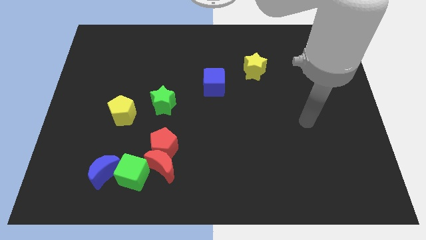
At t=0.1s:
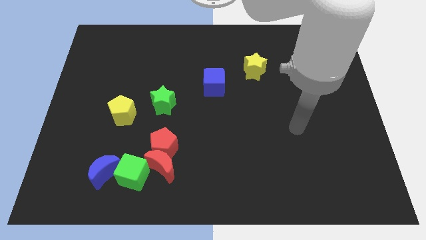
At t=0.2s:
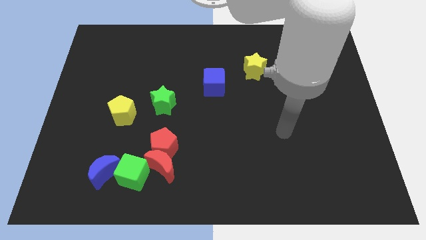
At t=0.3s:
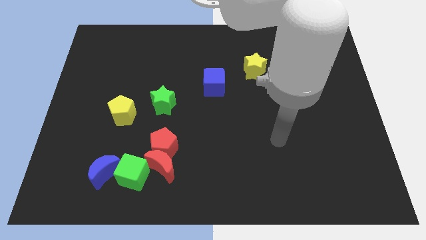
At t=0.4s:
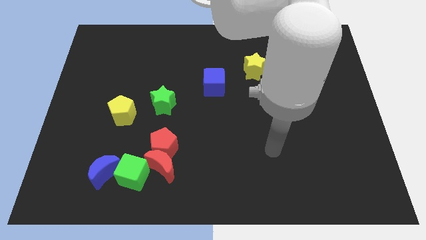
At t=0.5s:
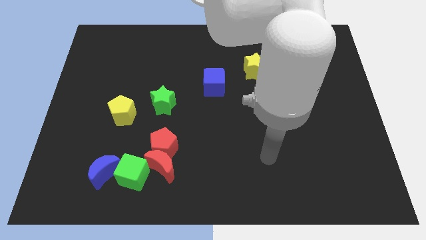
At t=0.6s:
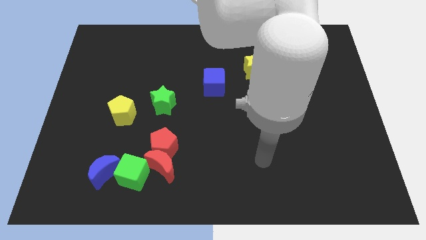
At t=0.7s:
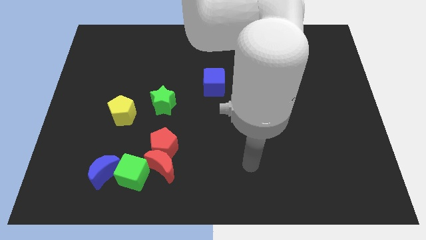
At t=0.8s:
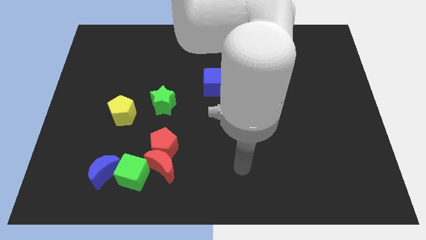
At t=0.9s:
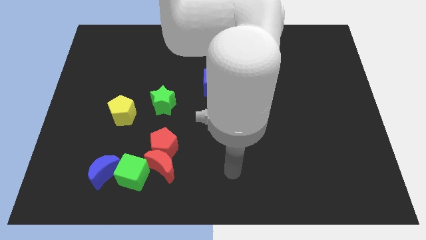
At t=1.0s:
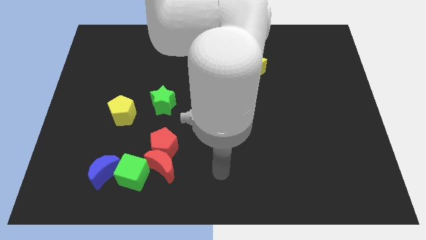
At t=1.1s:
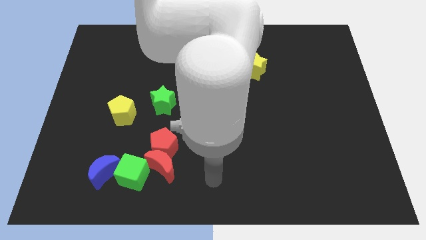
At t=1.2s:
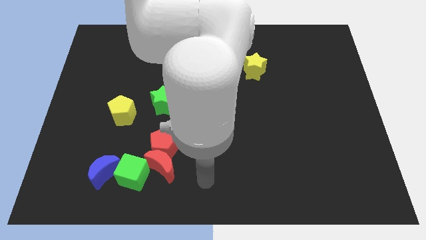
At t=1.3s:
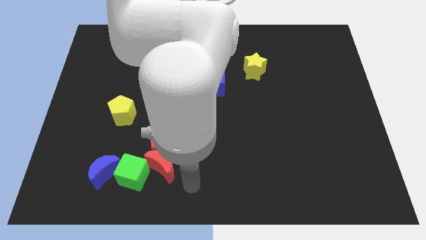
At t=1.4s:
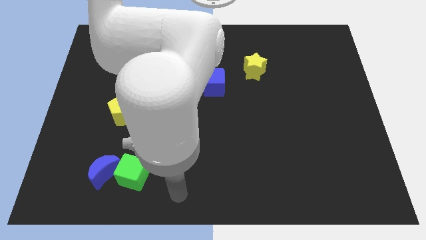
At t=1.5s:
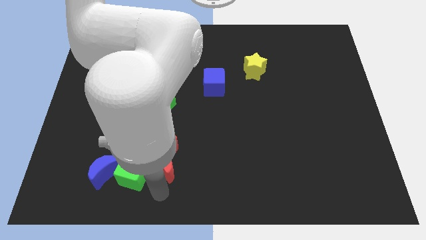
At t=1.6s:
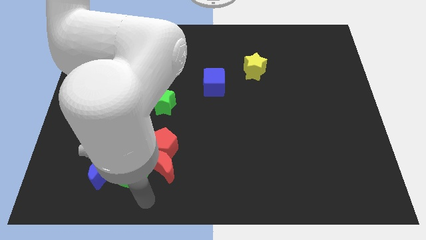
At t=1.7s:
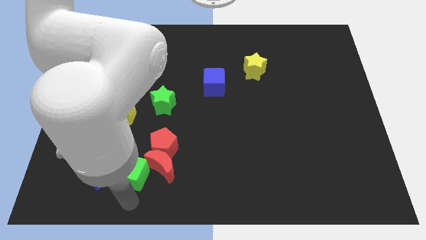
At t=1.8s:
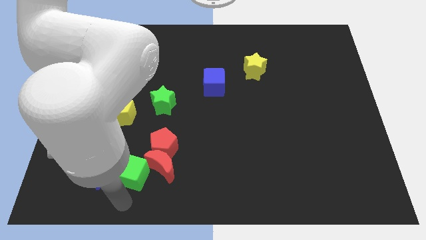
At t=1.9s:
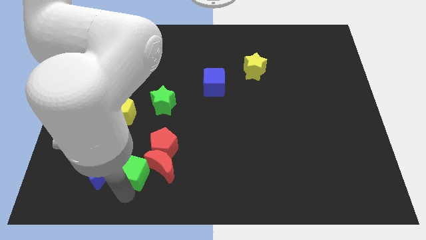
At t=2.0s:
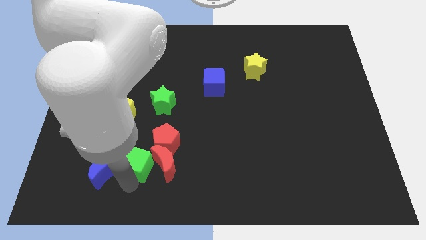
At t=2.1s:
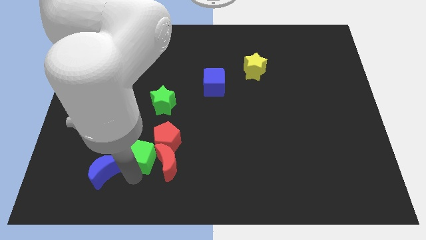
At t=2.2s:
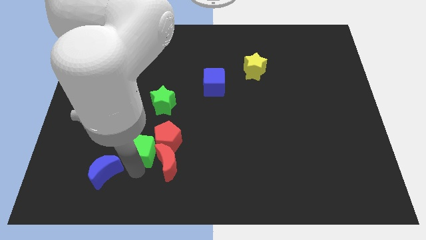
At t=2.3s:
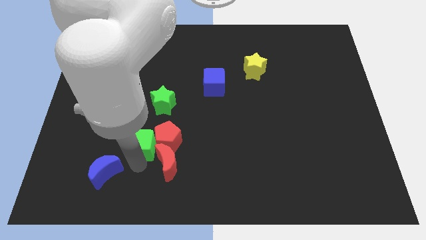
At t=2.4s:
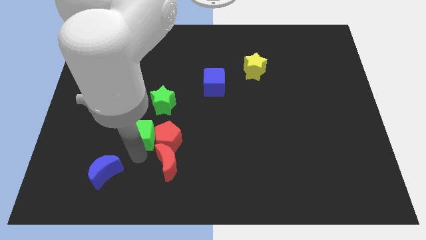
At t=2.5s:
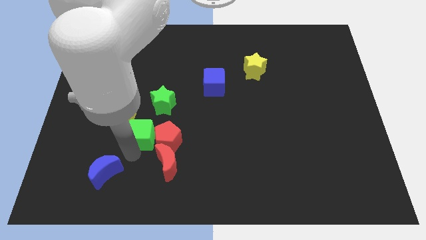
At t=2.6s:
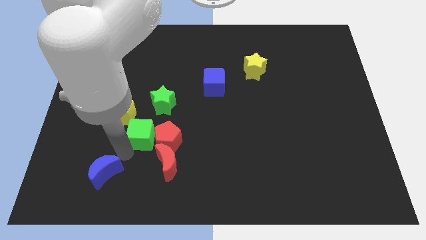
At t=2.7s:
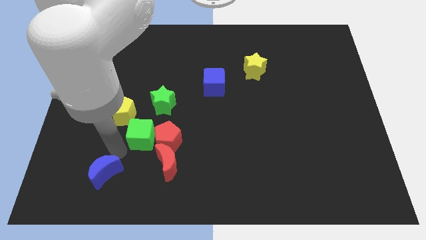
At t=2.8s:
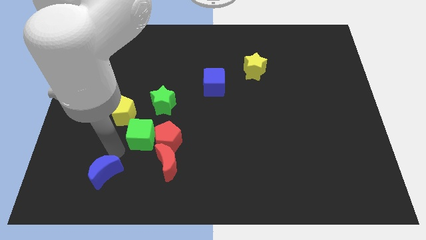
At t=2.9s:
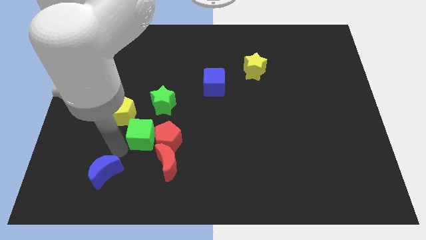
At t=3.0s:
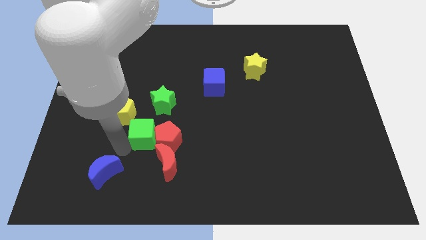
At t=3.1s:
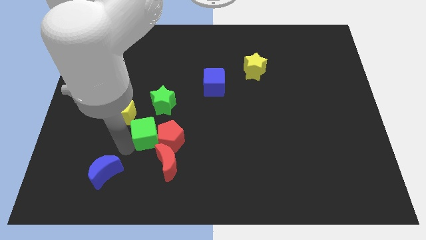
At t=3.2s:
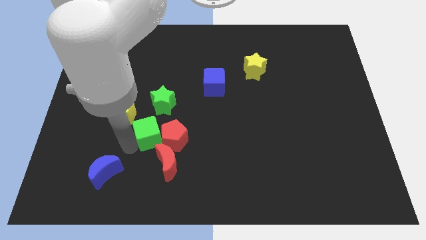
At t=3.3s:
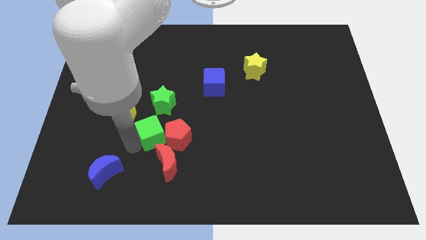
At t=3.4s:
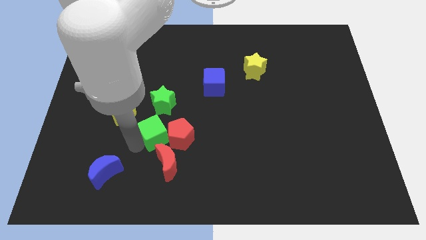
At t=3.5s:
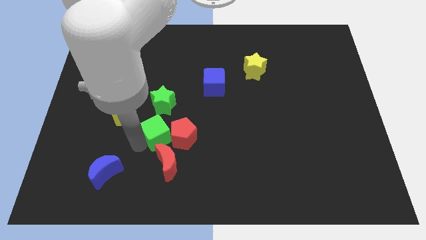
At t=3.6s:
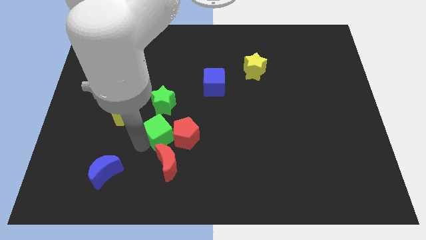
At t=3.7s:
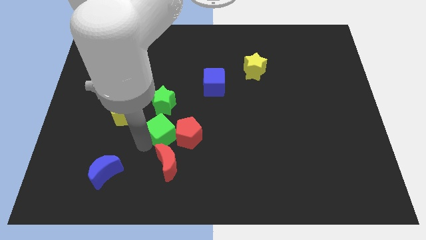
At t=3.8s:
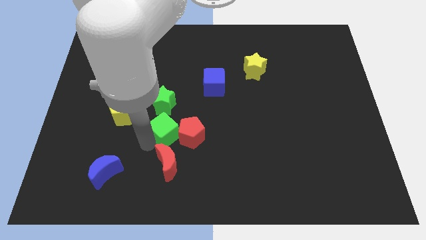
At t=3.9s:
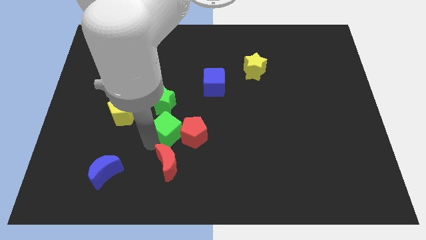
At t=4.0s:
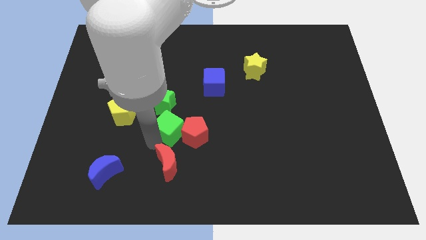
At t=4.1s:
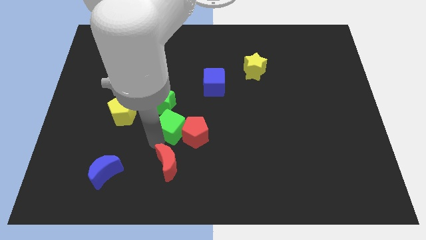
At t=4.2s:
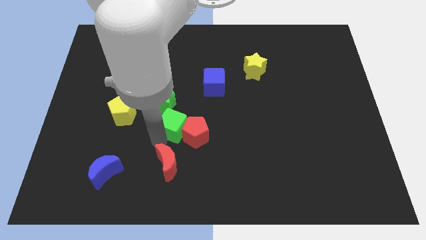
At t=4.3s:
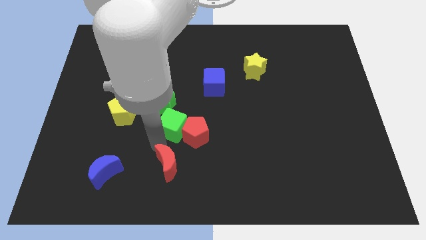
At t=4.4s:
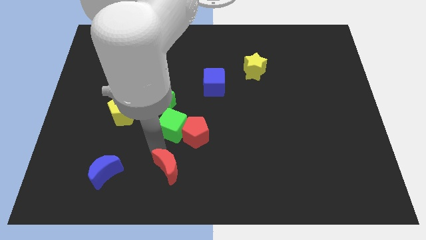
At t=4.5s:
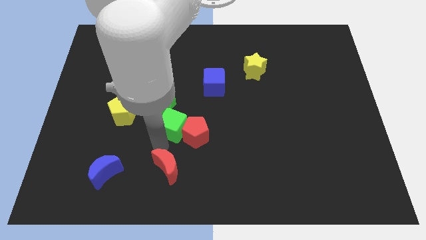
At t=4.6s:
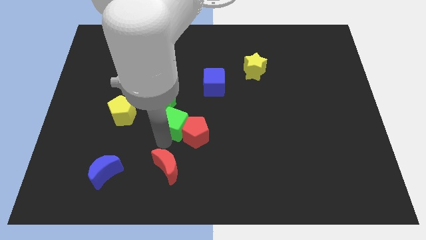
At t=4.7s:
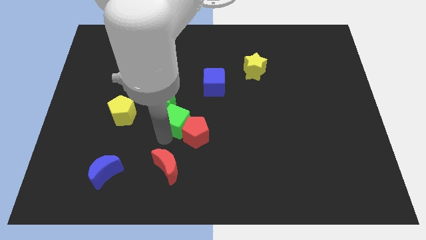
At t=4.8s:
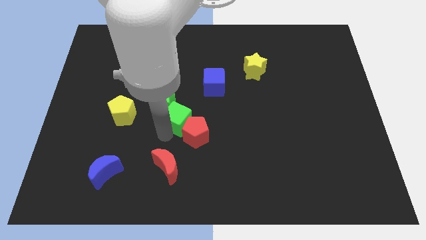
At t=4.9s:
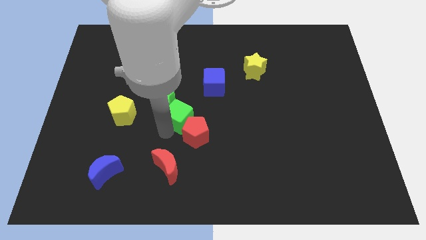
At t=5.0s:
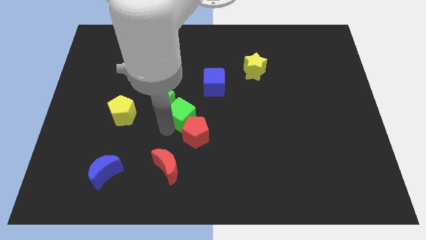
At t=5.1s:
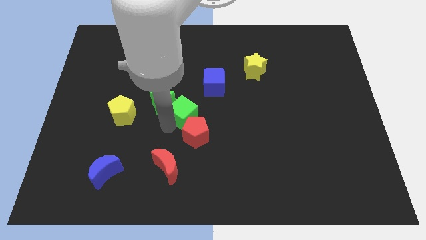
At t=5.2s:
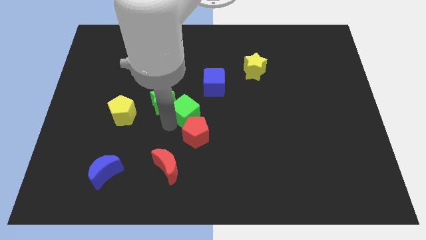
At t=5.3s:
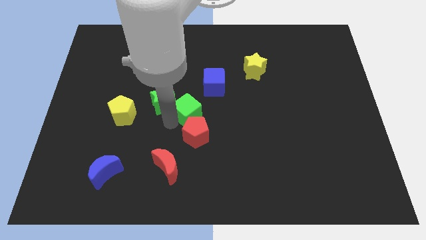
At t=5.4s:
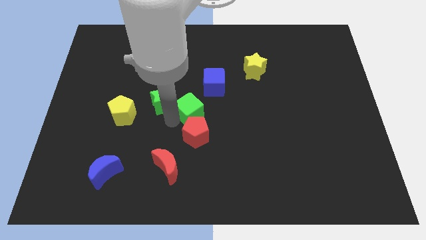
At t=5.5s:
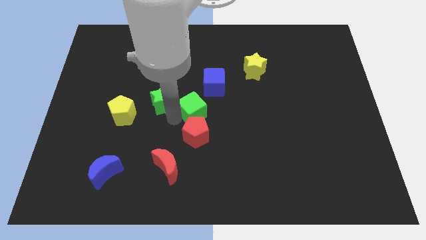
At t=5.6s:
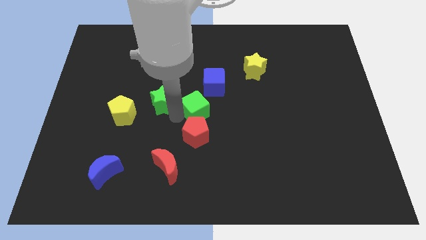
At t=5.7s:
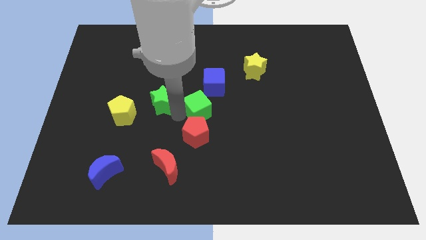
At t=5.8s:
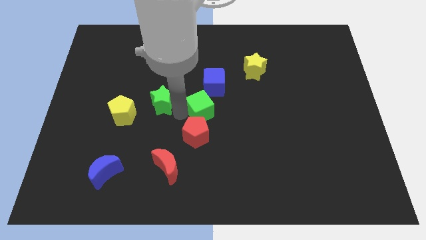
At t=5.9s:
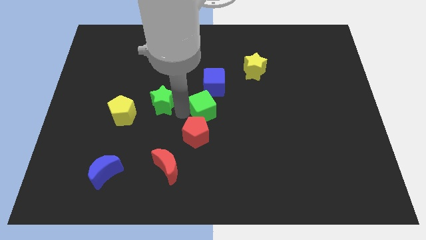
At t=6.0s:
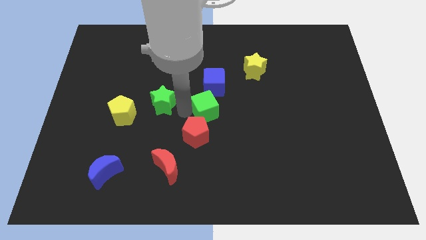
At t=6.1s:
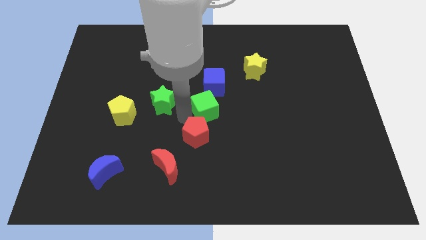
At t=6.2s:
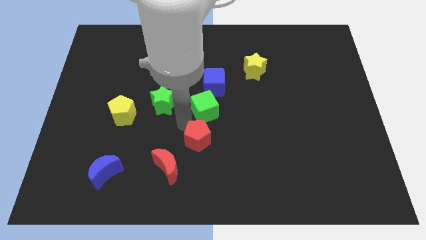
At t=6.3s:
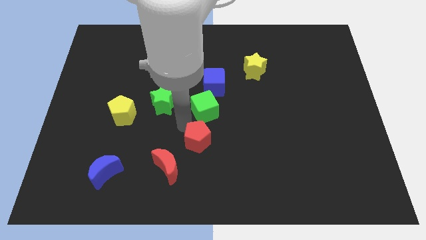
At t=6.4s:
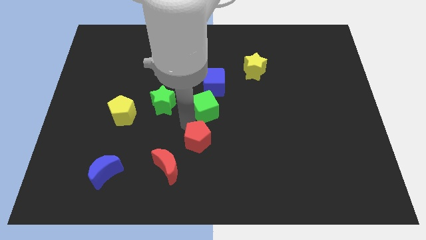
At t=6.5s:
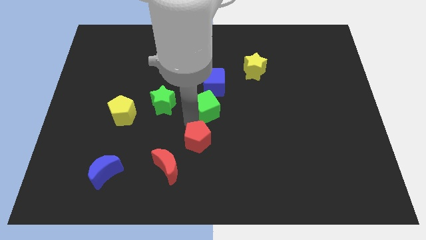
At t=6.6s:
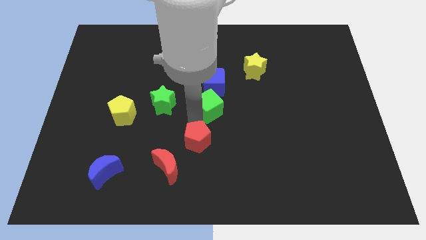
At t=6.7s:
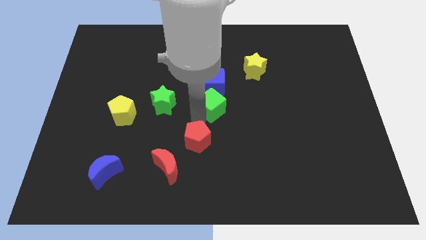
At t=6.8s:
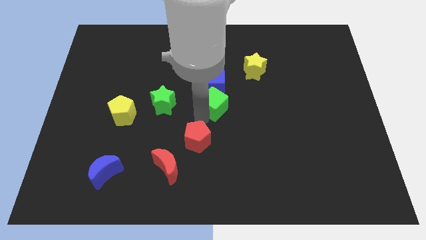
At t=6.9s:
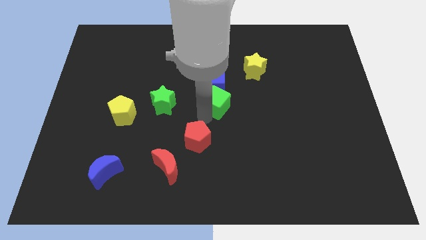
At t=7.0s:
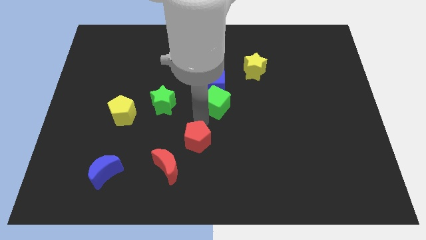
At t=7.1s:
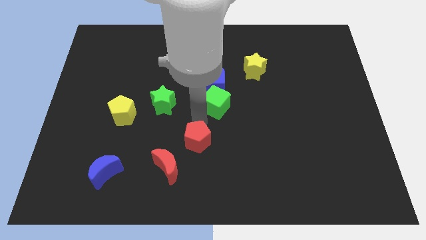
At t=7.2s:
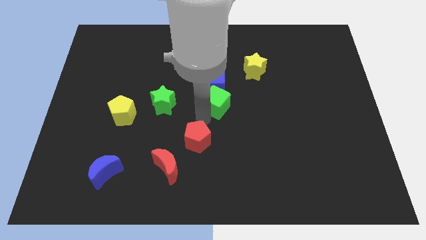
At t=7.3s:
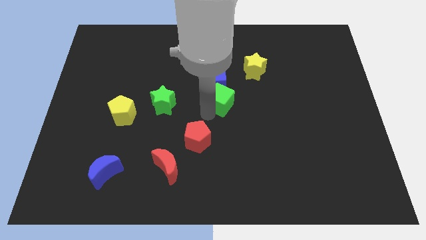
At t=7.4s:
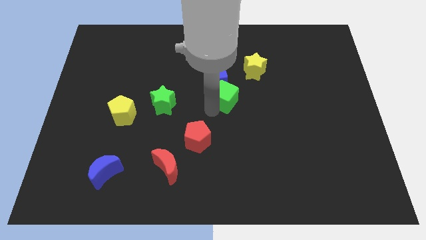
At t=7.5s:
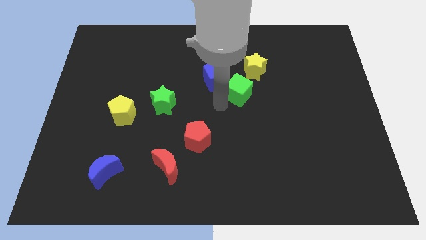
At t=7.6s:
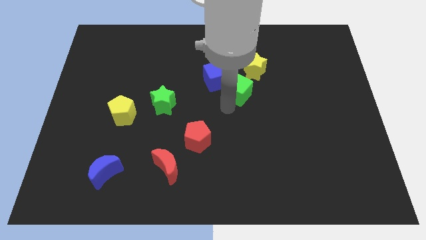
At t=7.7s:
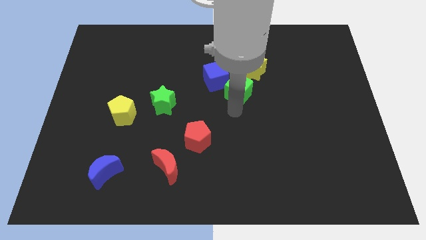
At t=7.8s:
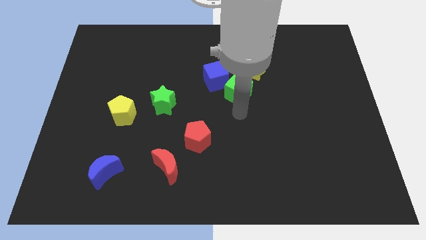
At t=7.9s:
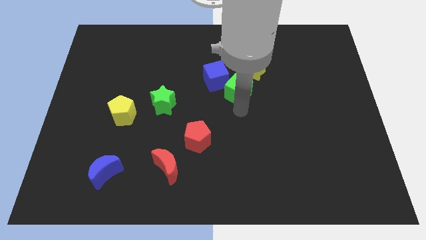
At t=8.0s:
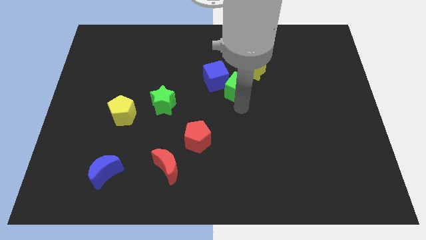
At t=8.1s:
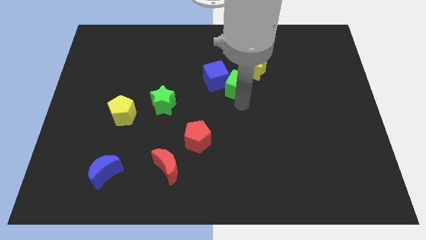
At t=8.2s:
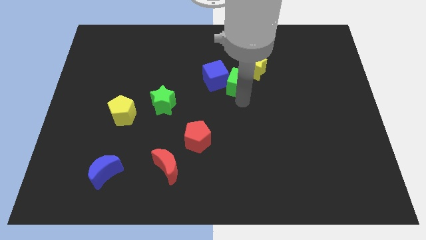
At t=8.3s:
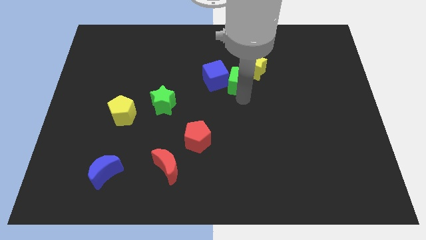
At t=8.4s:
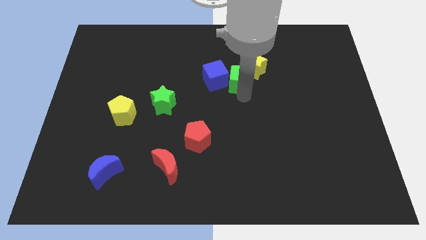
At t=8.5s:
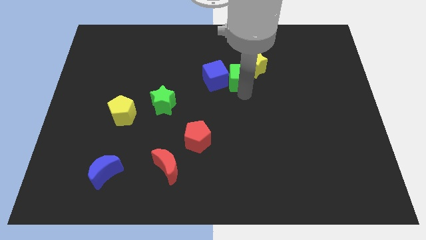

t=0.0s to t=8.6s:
move the green cube to the top right side of the blue cube
